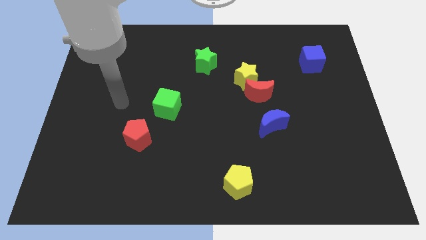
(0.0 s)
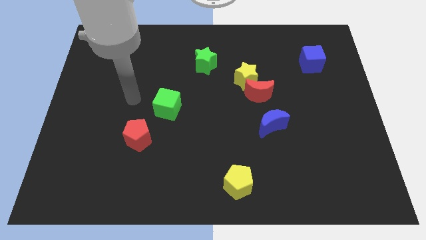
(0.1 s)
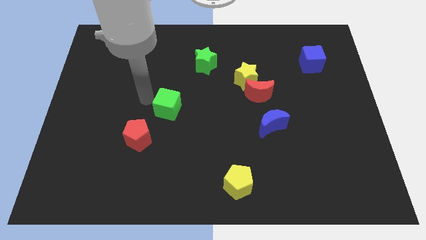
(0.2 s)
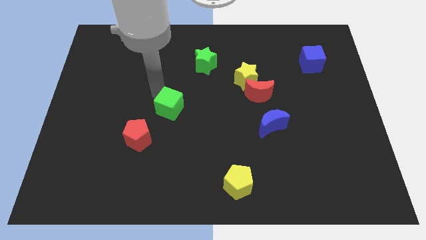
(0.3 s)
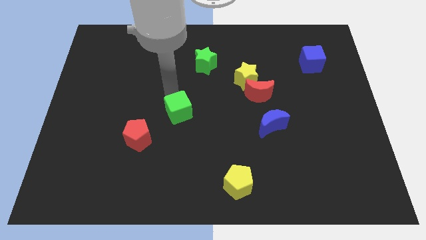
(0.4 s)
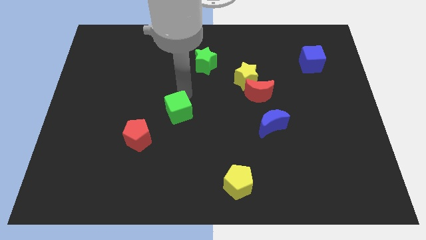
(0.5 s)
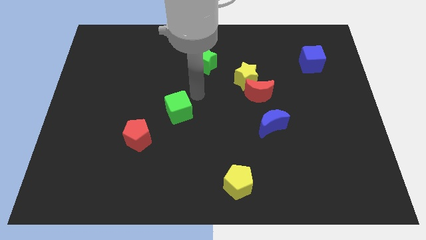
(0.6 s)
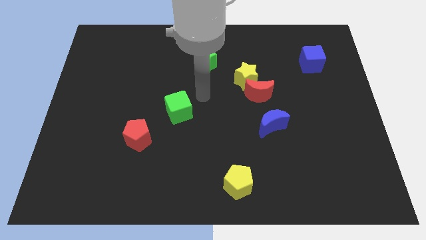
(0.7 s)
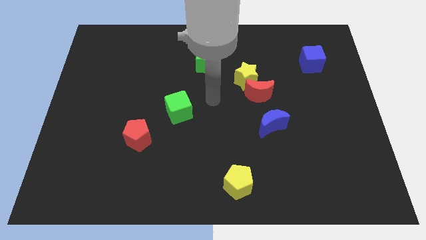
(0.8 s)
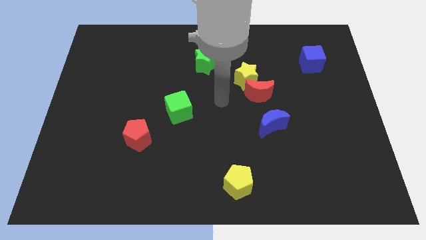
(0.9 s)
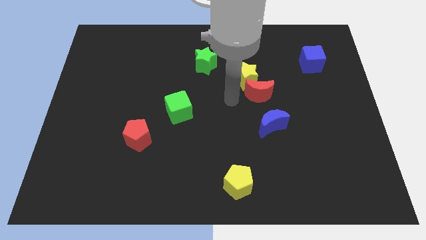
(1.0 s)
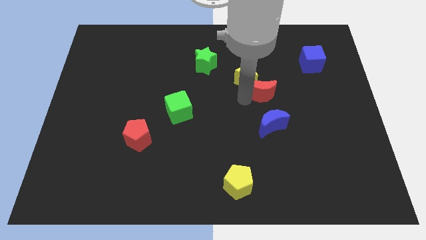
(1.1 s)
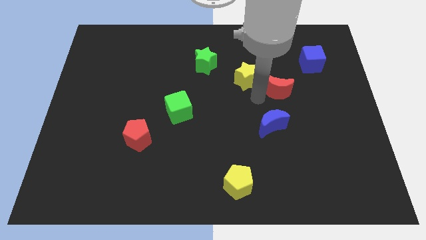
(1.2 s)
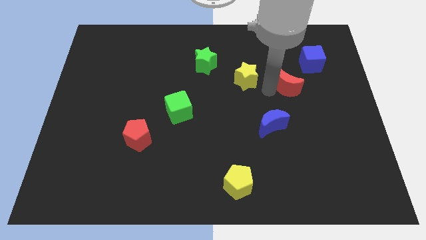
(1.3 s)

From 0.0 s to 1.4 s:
separate the yellow star from the red moon

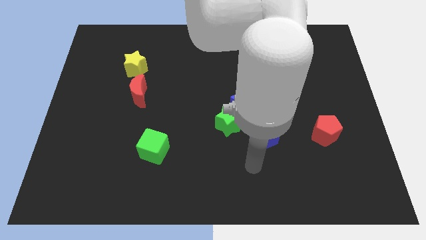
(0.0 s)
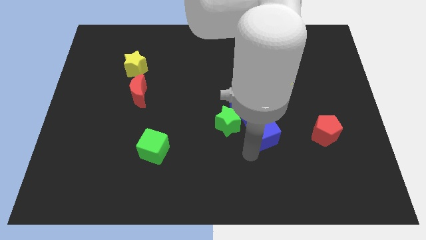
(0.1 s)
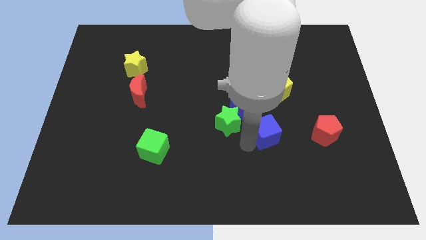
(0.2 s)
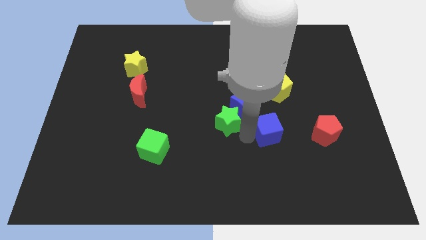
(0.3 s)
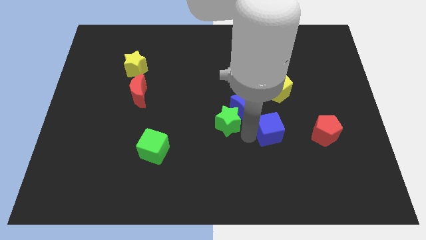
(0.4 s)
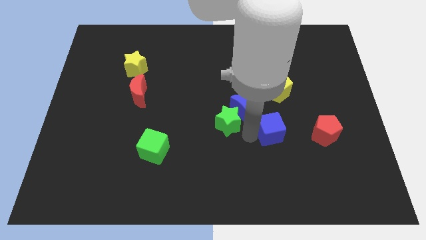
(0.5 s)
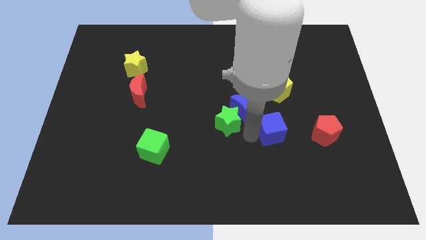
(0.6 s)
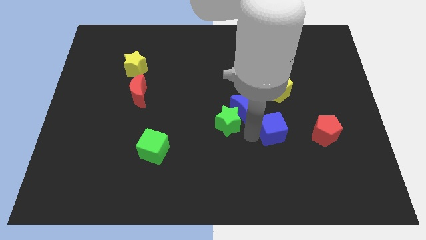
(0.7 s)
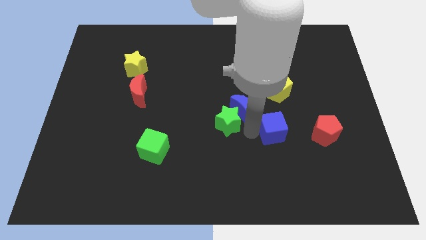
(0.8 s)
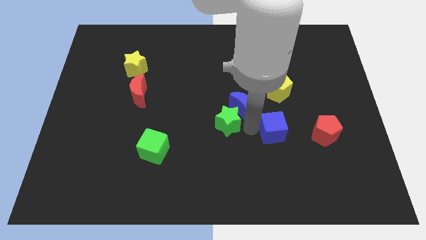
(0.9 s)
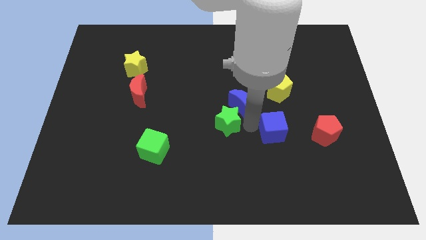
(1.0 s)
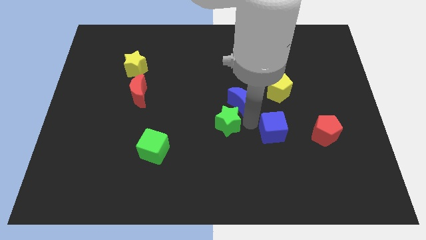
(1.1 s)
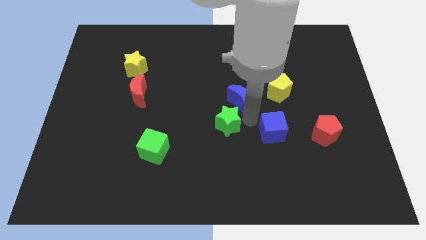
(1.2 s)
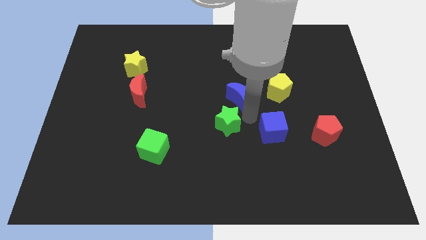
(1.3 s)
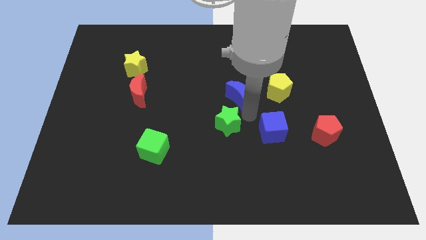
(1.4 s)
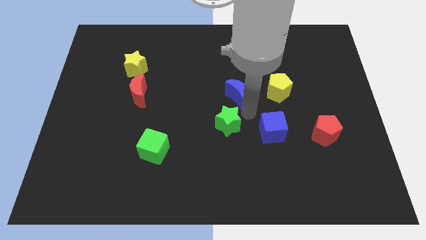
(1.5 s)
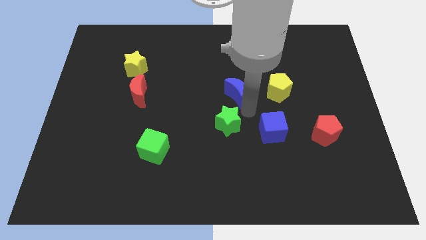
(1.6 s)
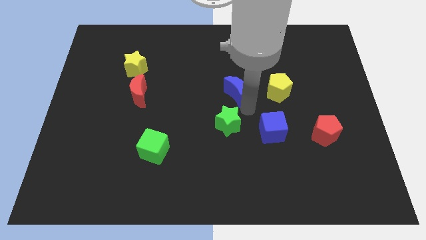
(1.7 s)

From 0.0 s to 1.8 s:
pull the blue moon apart from the green star and blue cube

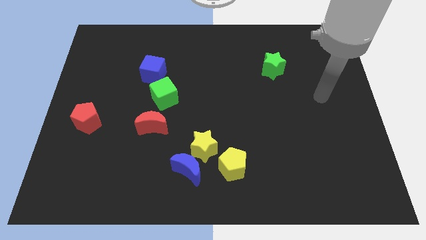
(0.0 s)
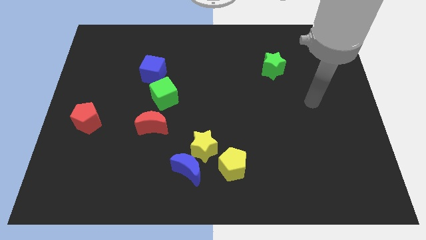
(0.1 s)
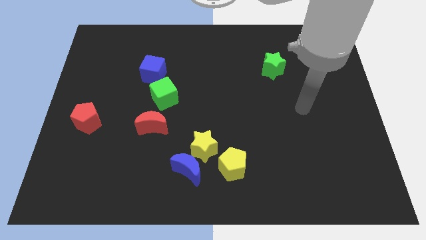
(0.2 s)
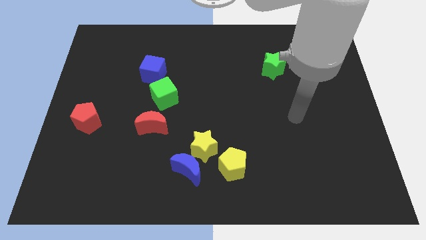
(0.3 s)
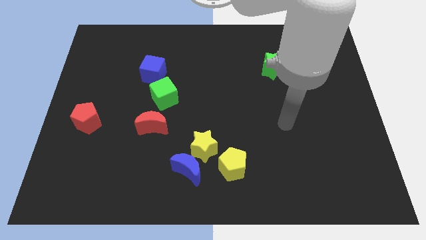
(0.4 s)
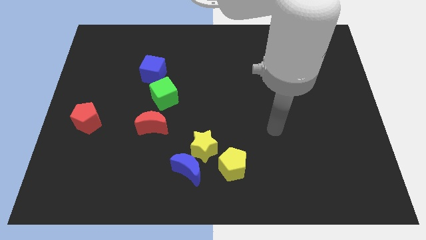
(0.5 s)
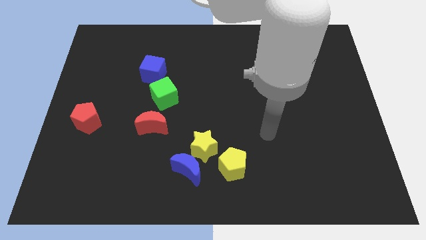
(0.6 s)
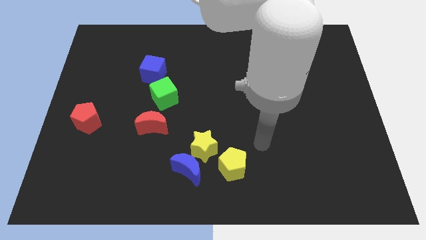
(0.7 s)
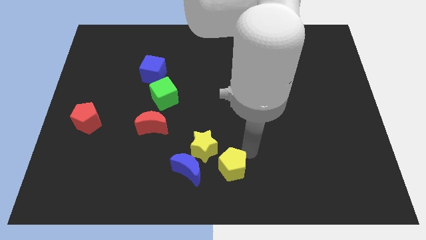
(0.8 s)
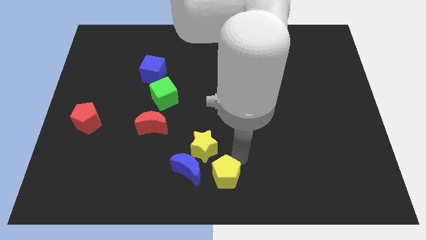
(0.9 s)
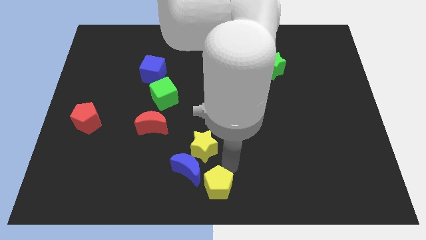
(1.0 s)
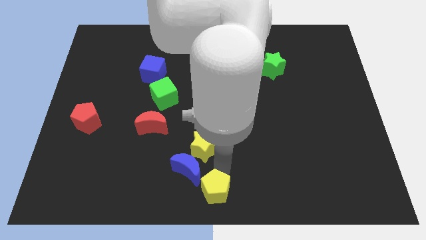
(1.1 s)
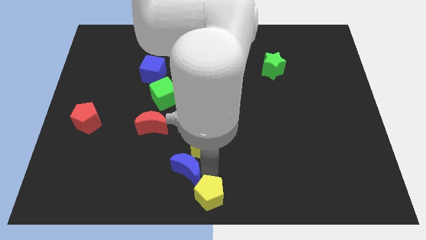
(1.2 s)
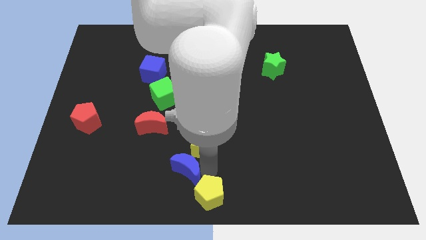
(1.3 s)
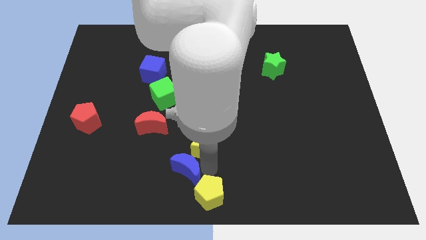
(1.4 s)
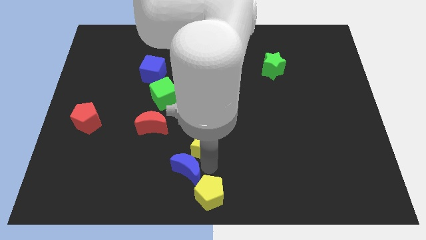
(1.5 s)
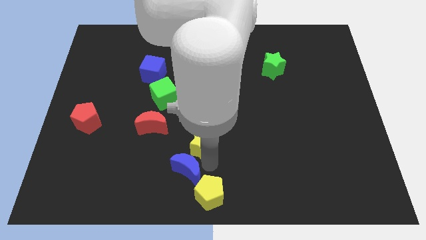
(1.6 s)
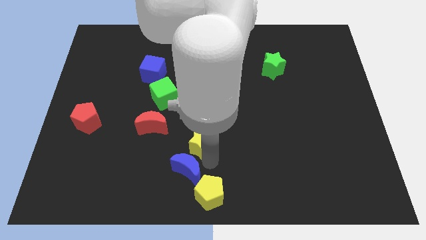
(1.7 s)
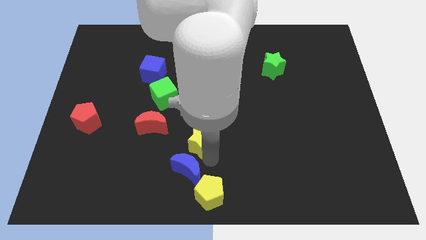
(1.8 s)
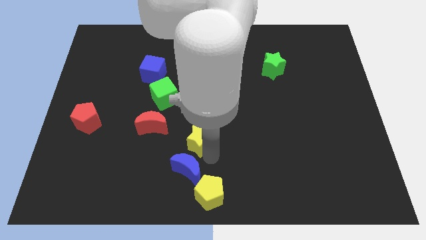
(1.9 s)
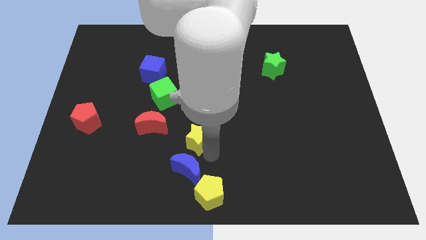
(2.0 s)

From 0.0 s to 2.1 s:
move the yellow star away from the blue moon and yellow pentagon

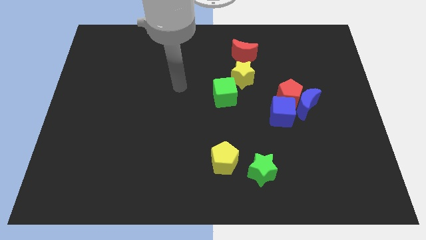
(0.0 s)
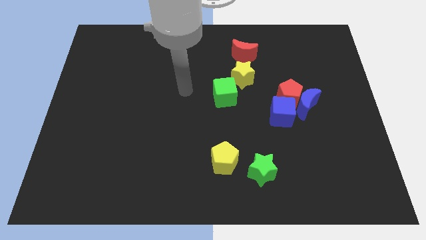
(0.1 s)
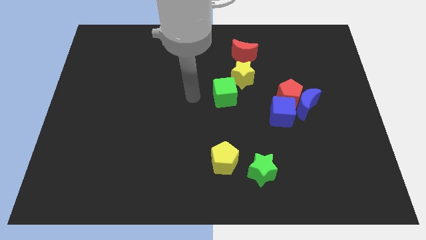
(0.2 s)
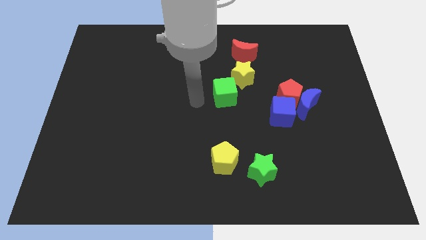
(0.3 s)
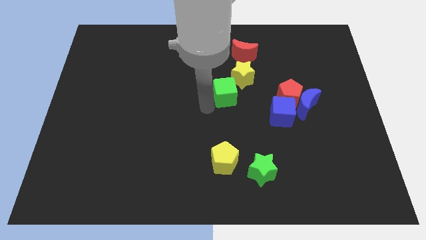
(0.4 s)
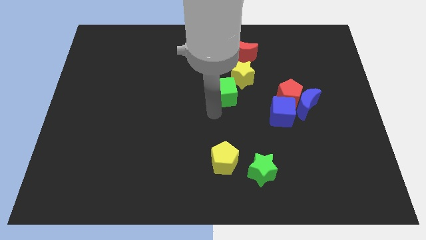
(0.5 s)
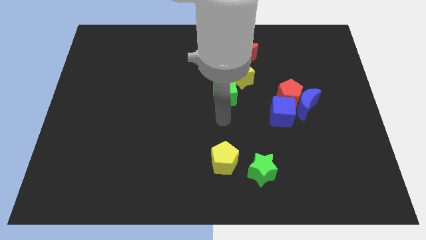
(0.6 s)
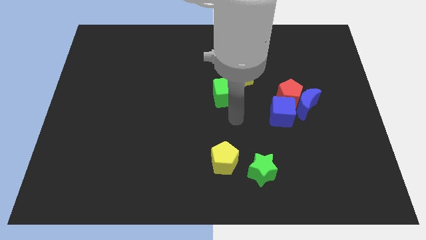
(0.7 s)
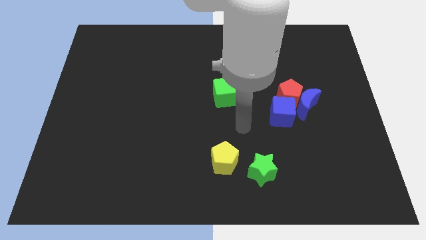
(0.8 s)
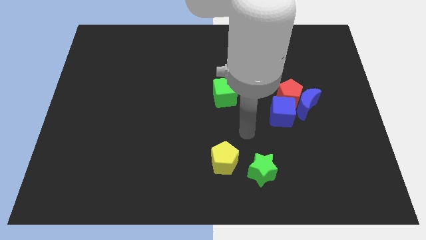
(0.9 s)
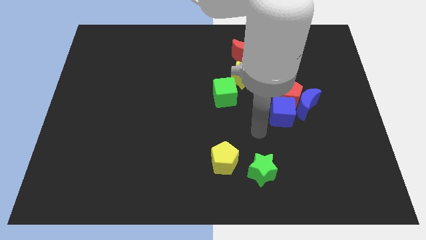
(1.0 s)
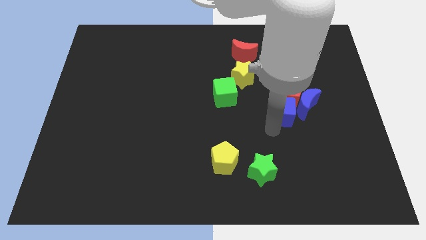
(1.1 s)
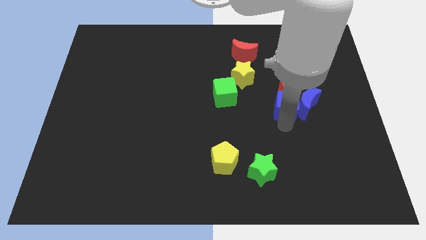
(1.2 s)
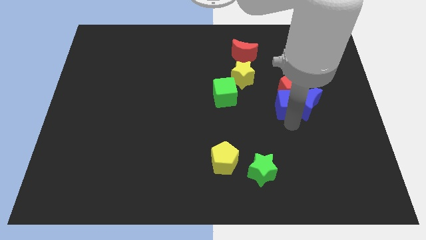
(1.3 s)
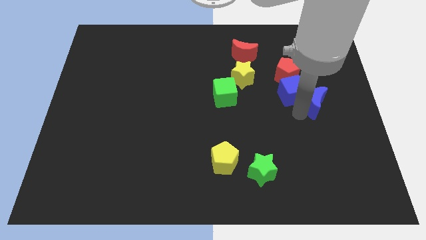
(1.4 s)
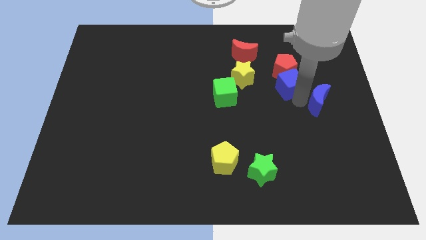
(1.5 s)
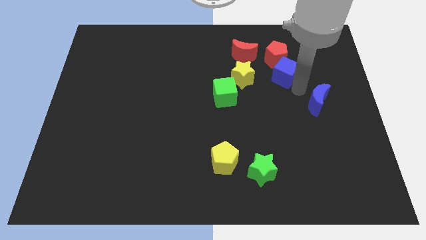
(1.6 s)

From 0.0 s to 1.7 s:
separate the red pentagon from the blue moon and blue cube

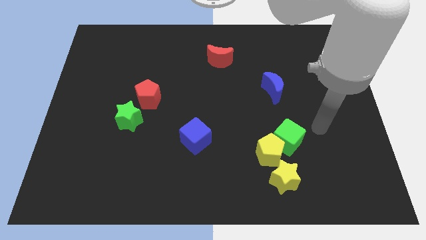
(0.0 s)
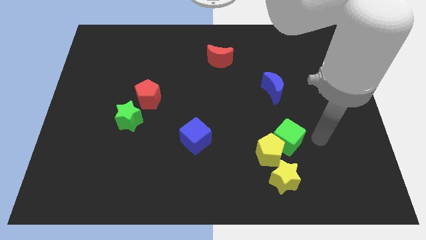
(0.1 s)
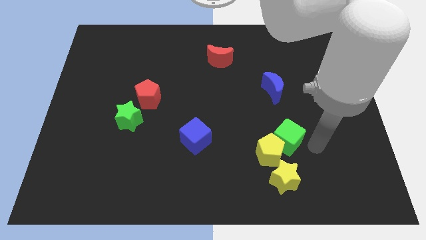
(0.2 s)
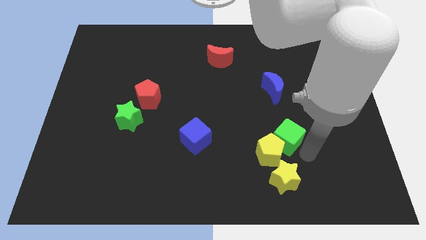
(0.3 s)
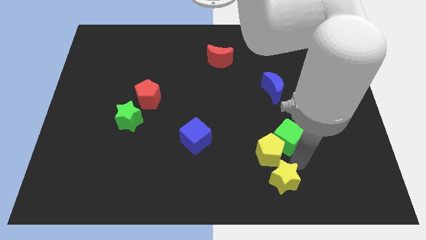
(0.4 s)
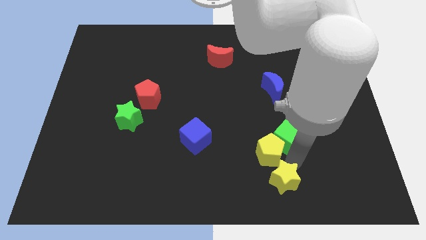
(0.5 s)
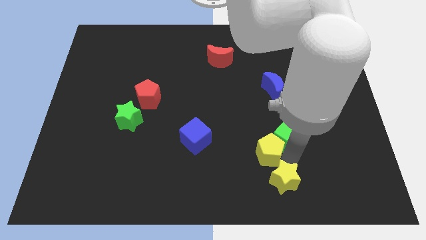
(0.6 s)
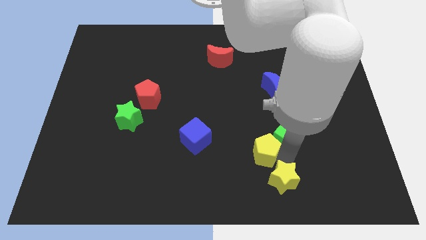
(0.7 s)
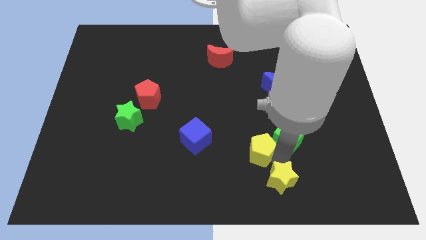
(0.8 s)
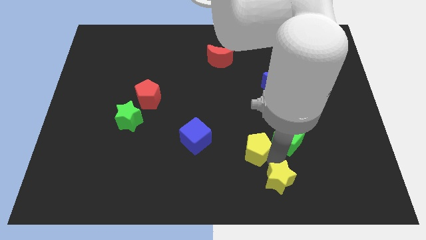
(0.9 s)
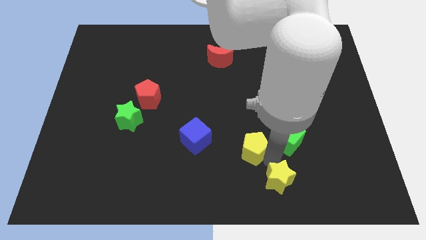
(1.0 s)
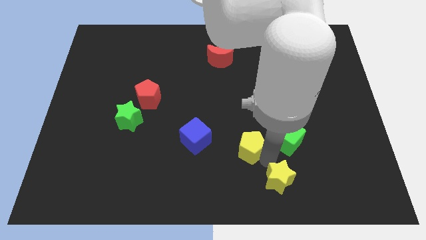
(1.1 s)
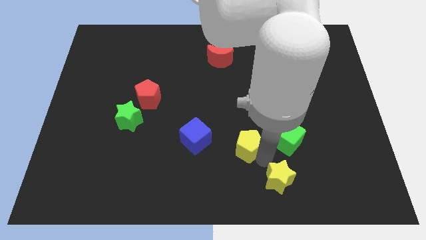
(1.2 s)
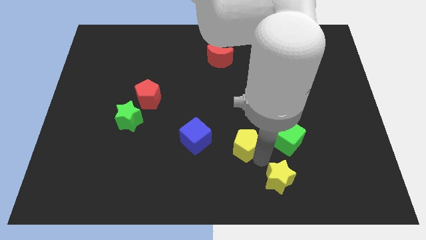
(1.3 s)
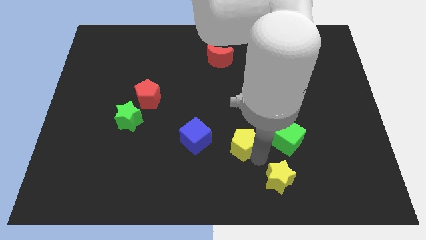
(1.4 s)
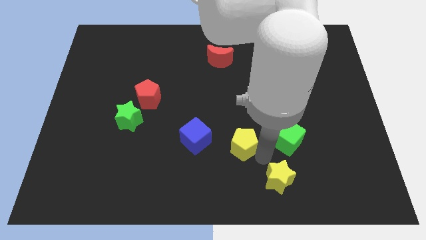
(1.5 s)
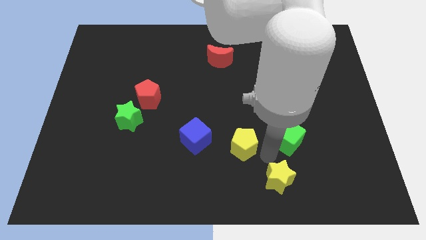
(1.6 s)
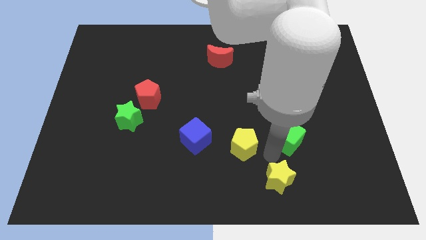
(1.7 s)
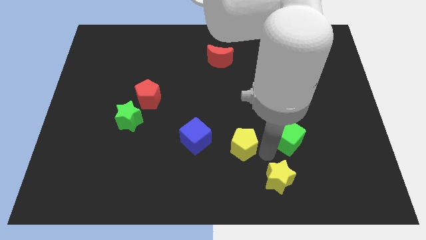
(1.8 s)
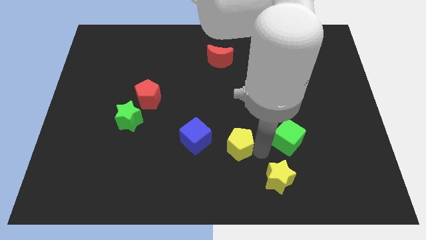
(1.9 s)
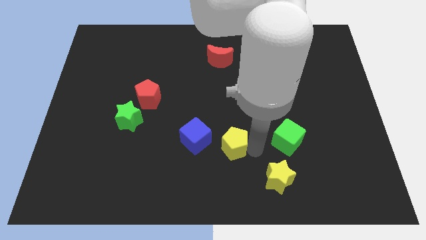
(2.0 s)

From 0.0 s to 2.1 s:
pull the yellow pentagon apart from the green cube and yellow star

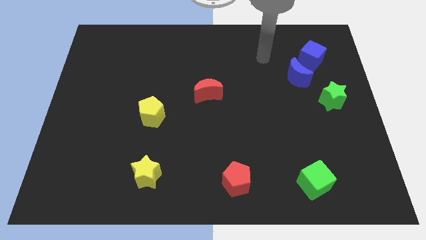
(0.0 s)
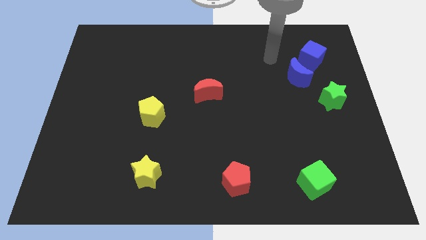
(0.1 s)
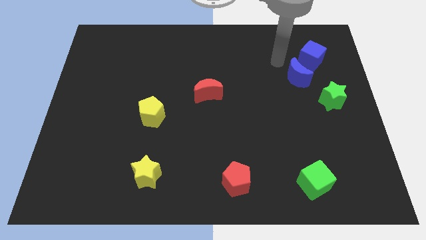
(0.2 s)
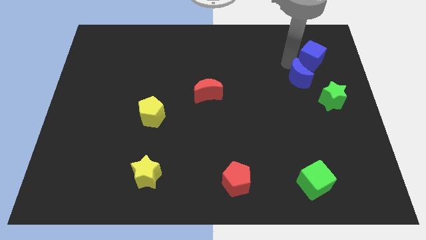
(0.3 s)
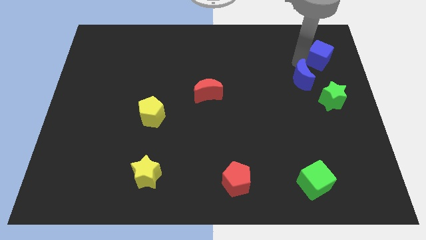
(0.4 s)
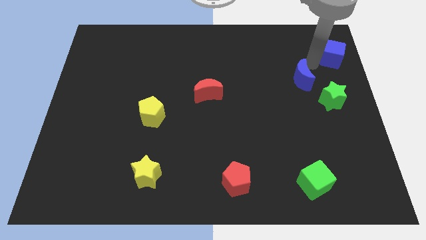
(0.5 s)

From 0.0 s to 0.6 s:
move the blue moon away from the blue cube
